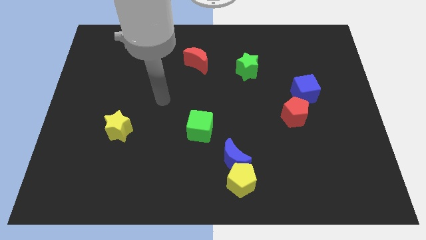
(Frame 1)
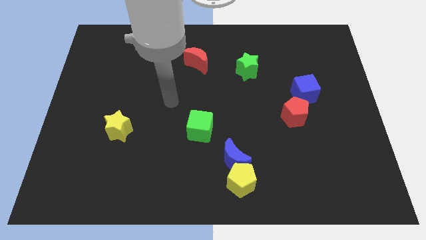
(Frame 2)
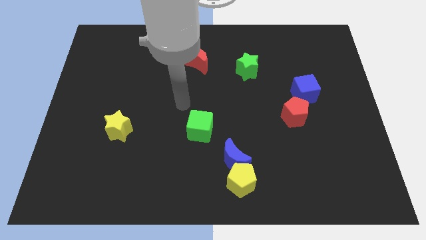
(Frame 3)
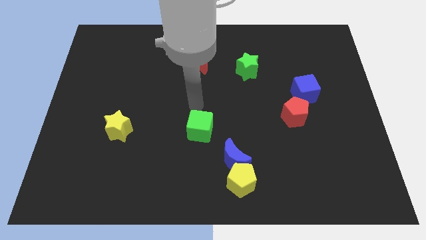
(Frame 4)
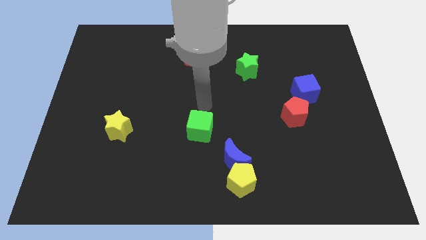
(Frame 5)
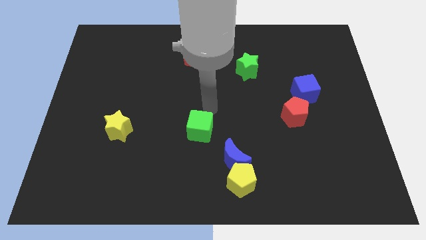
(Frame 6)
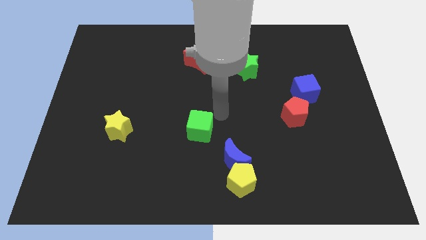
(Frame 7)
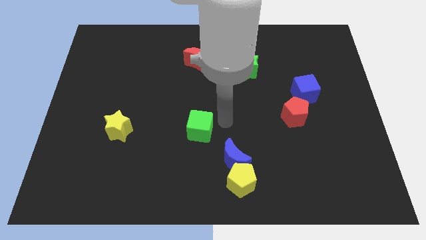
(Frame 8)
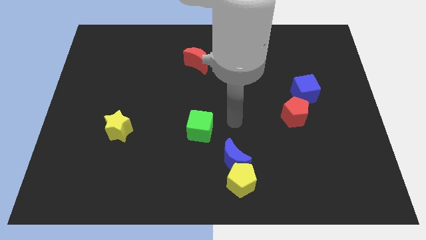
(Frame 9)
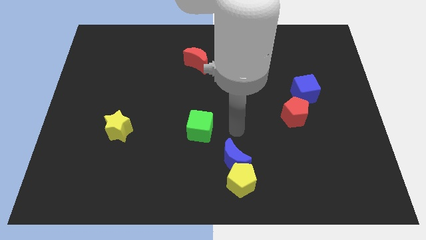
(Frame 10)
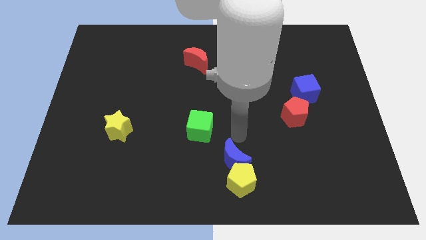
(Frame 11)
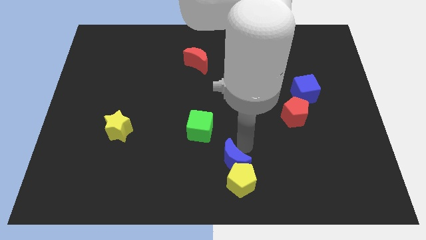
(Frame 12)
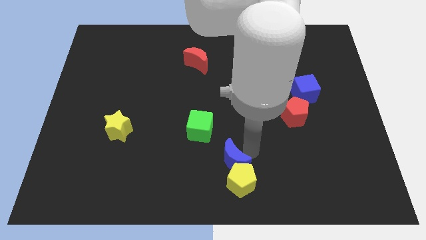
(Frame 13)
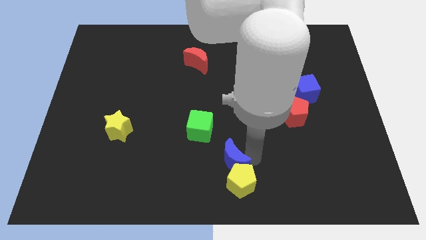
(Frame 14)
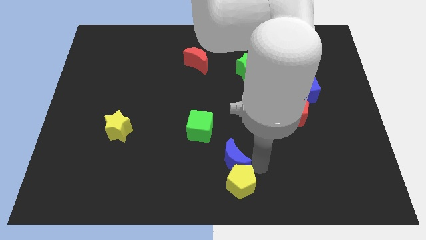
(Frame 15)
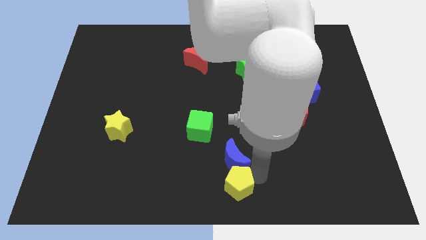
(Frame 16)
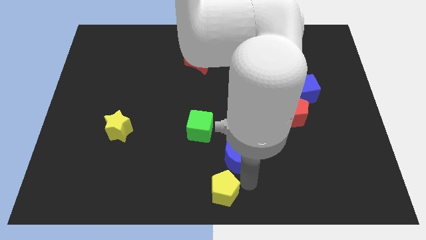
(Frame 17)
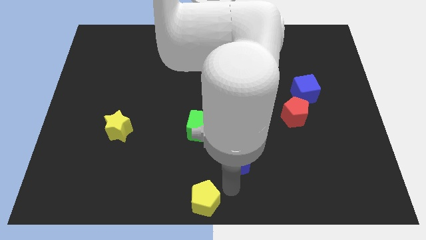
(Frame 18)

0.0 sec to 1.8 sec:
pull the blue moon apart from the yellow pentagon

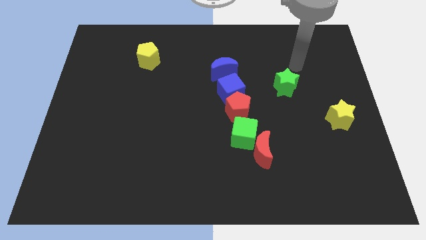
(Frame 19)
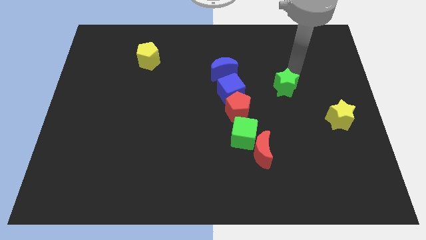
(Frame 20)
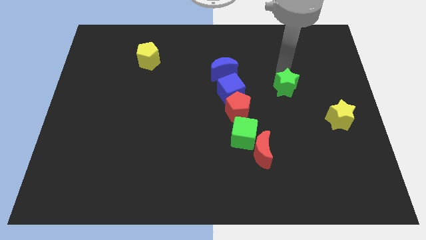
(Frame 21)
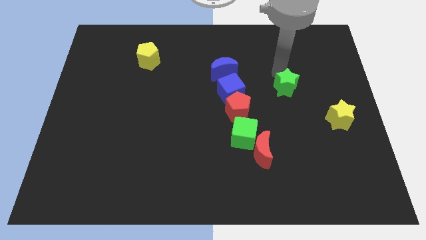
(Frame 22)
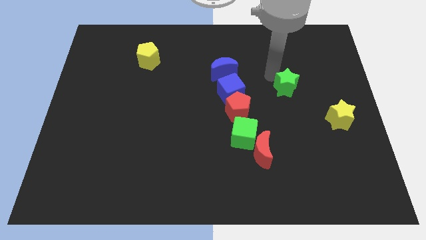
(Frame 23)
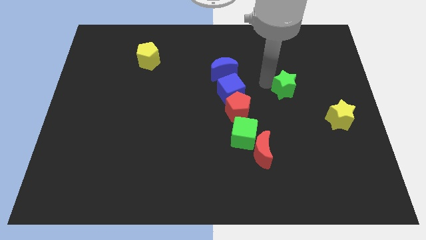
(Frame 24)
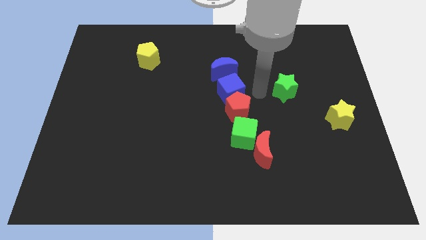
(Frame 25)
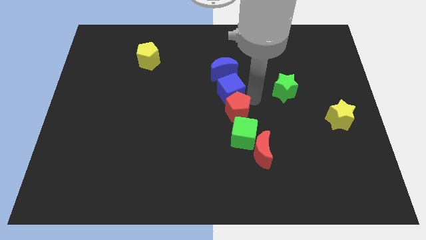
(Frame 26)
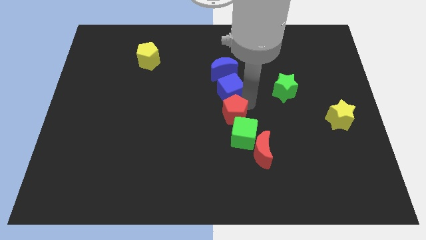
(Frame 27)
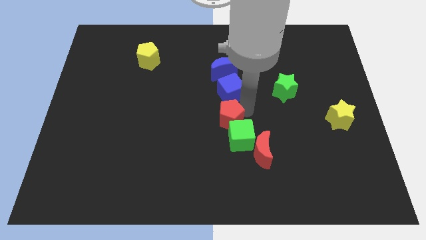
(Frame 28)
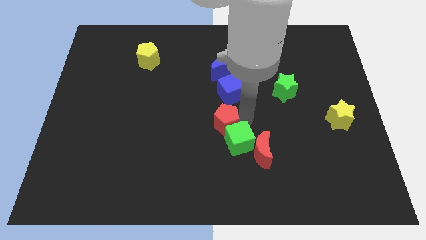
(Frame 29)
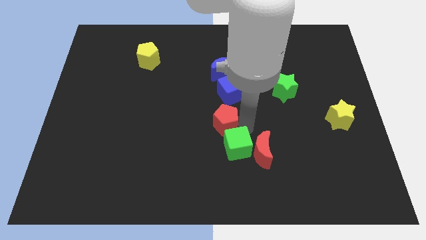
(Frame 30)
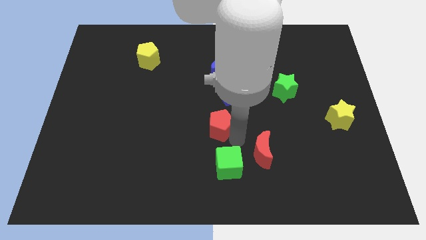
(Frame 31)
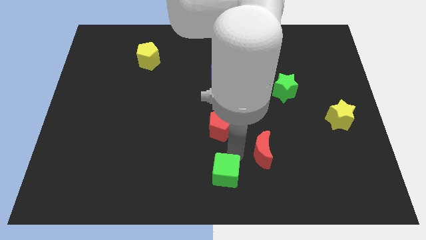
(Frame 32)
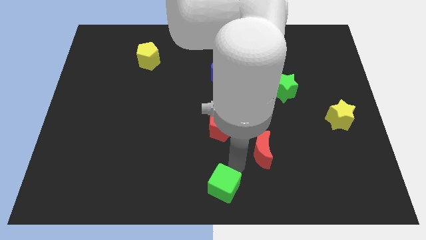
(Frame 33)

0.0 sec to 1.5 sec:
move the red moon away from the green cube

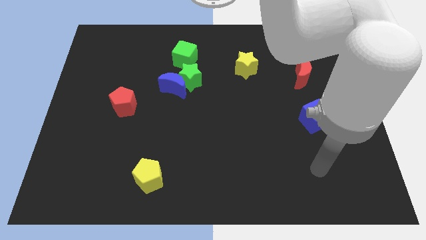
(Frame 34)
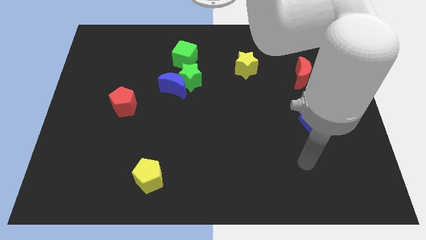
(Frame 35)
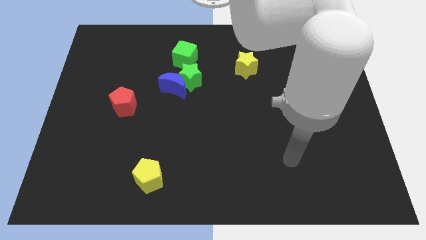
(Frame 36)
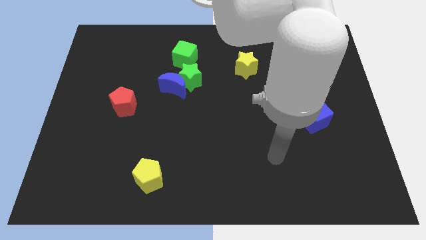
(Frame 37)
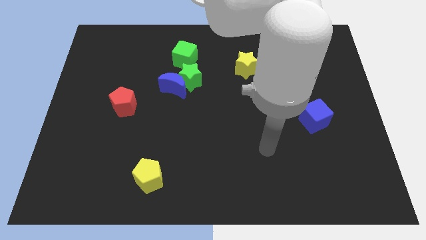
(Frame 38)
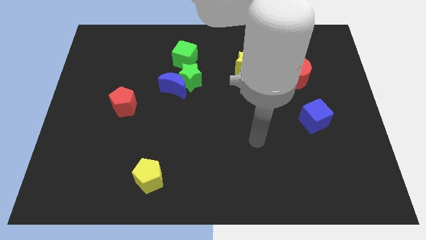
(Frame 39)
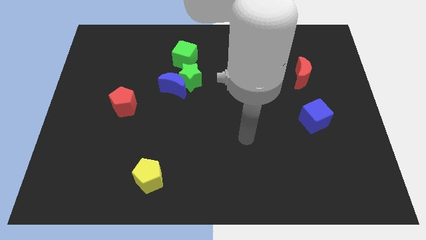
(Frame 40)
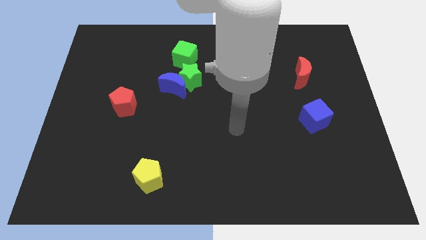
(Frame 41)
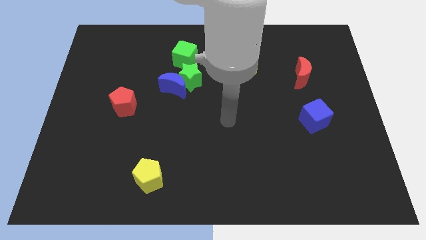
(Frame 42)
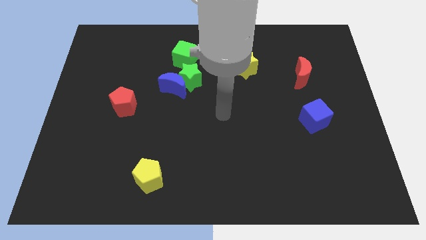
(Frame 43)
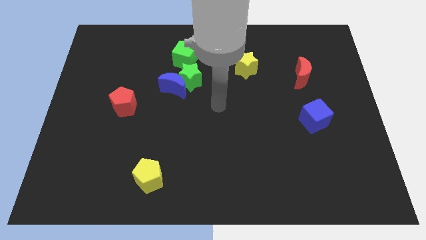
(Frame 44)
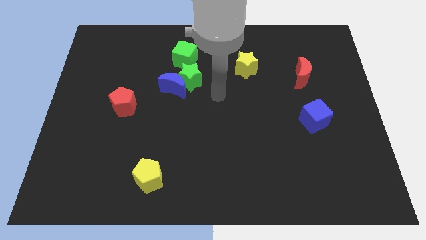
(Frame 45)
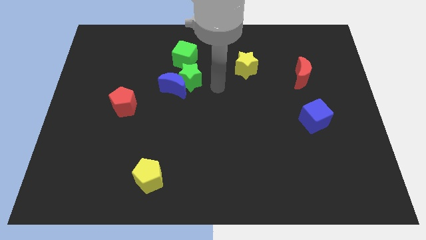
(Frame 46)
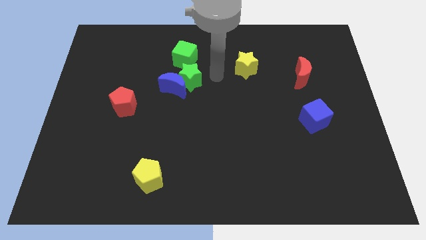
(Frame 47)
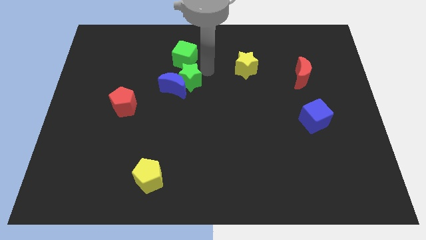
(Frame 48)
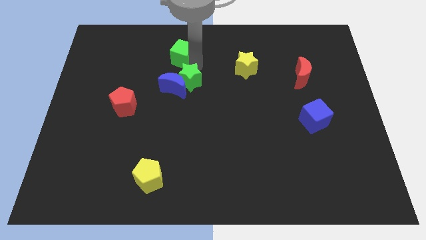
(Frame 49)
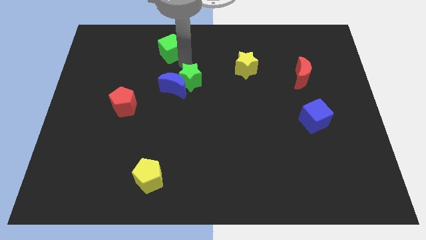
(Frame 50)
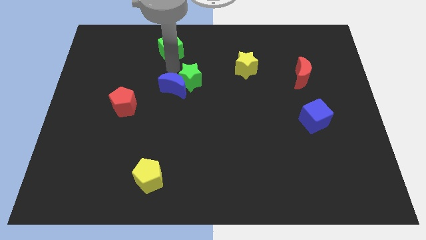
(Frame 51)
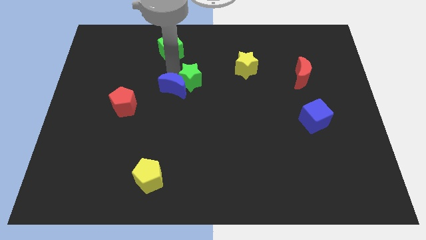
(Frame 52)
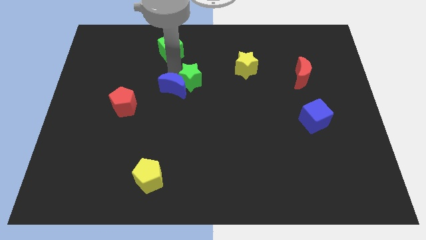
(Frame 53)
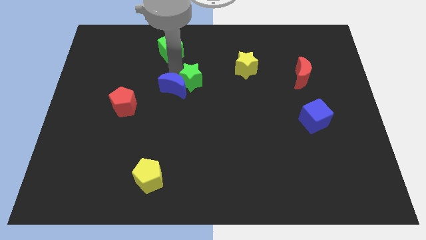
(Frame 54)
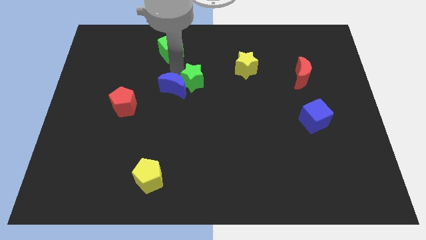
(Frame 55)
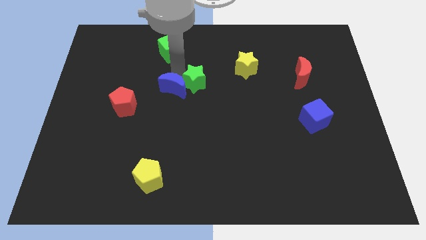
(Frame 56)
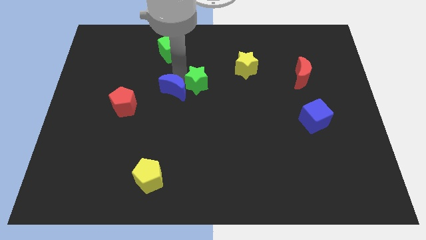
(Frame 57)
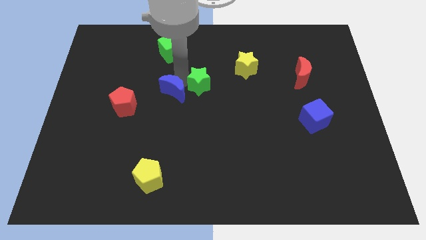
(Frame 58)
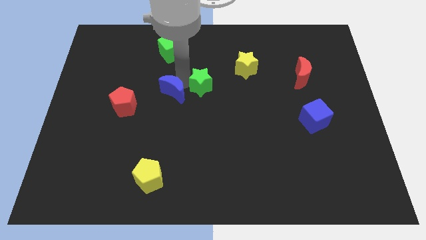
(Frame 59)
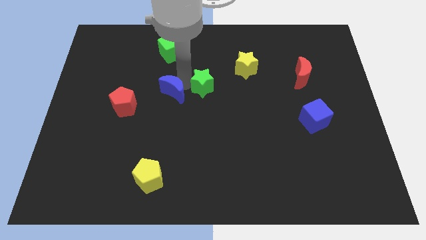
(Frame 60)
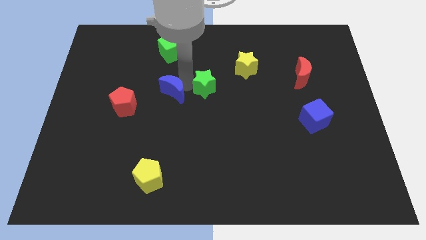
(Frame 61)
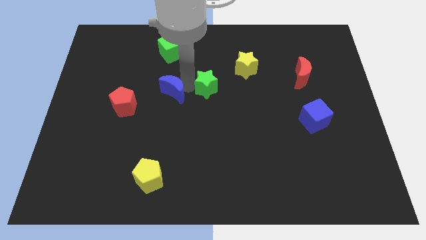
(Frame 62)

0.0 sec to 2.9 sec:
pull the green star apart from the blue moon and green cube

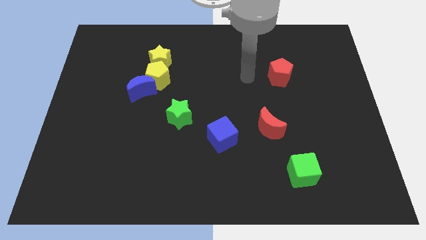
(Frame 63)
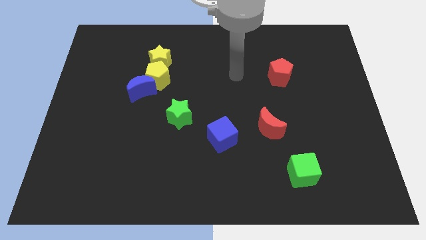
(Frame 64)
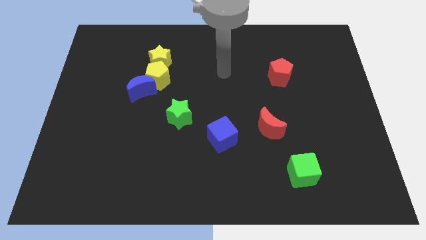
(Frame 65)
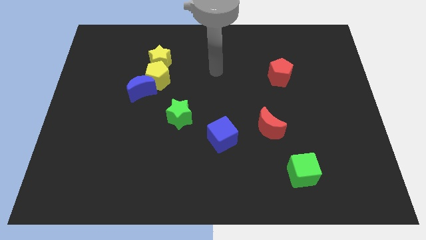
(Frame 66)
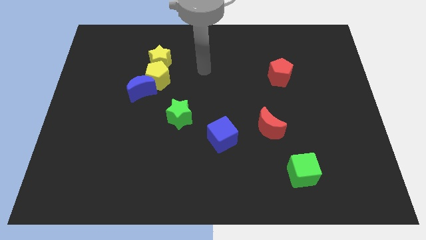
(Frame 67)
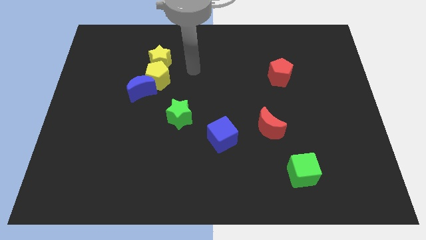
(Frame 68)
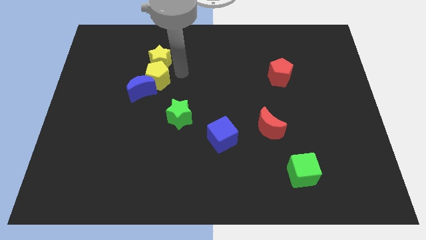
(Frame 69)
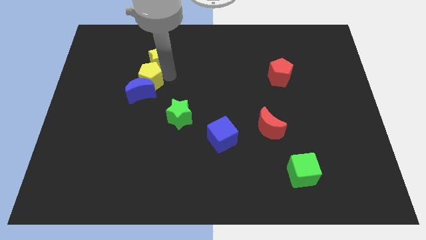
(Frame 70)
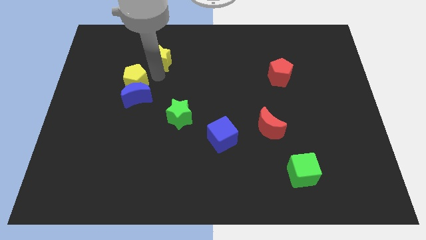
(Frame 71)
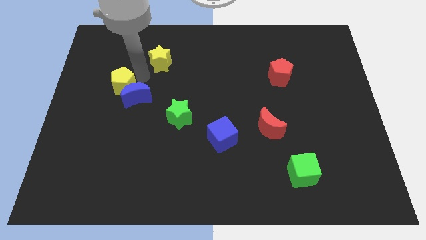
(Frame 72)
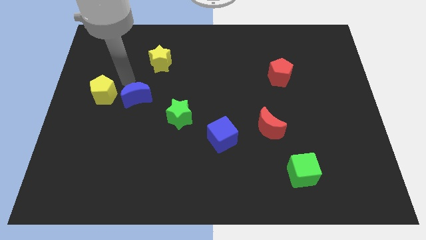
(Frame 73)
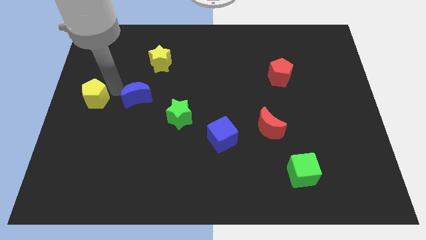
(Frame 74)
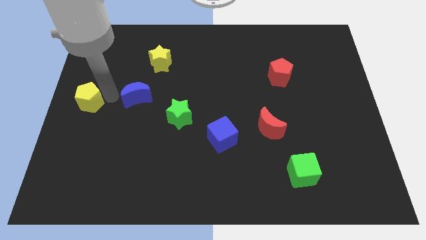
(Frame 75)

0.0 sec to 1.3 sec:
separate the blue moon from the yellow pentagon

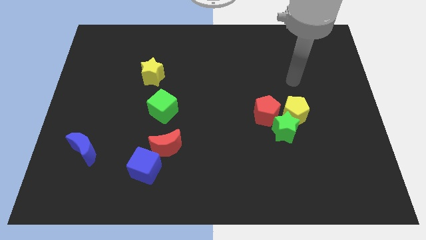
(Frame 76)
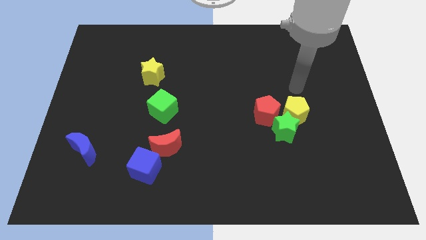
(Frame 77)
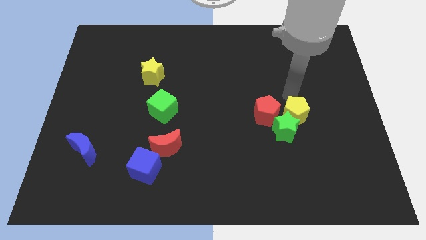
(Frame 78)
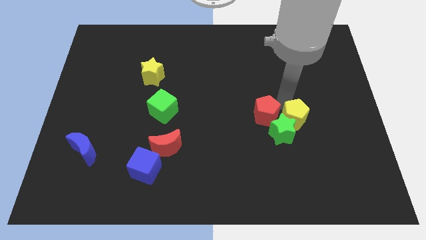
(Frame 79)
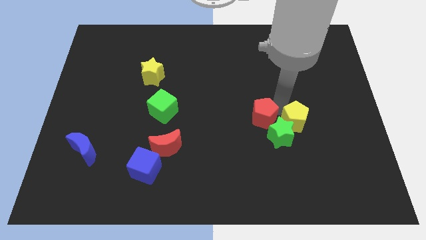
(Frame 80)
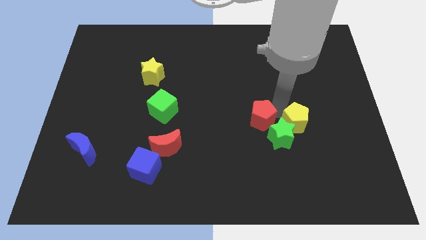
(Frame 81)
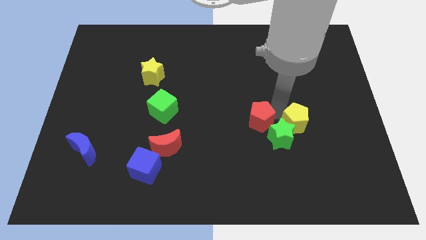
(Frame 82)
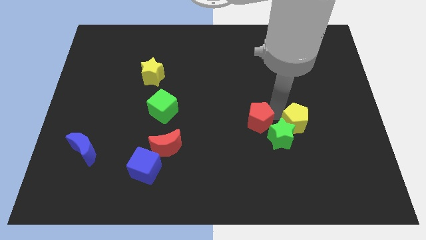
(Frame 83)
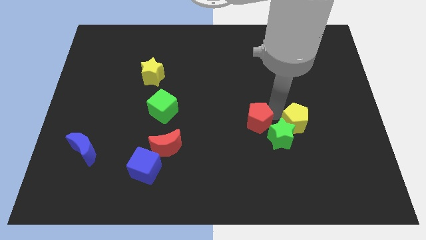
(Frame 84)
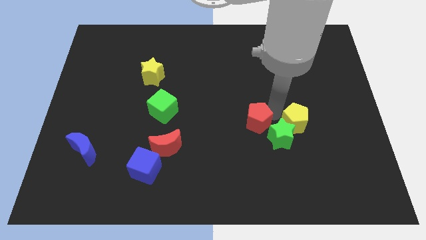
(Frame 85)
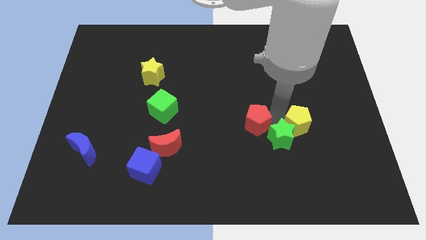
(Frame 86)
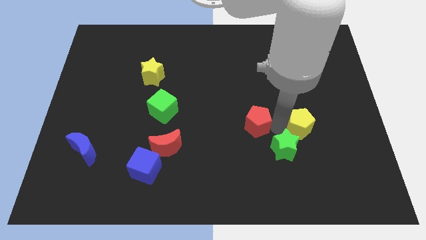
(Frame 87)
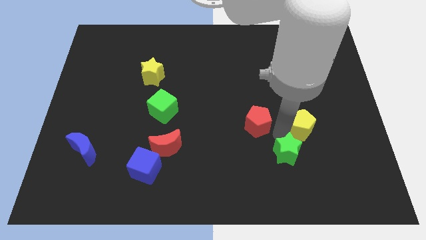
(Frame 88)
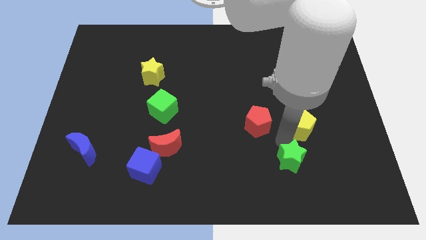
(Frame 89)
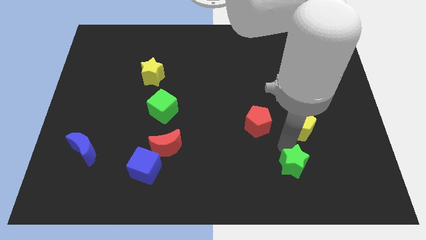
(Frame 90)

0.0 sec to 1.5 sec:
move the green star away from the yellow pentagon and red pentagon

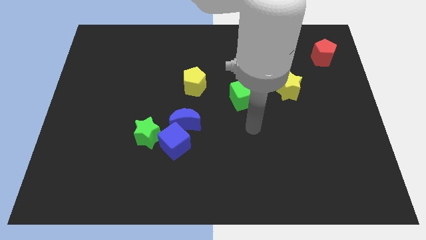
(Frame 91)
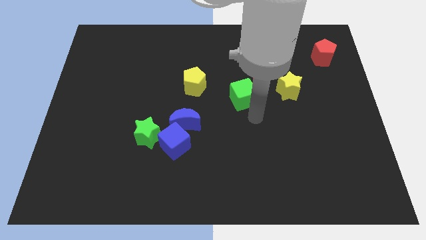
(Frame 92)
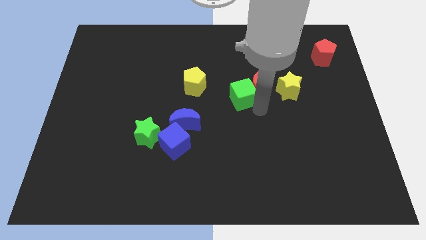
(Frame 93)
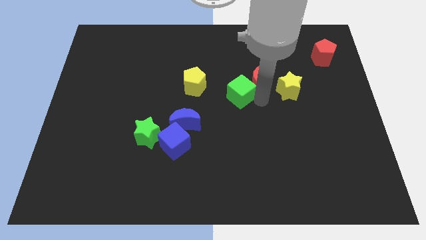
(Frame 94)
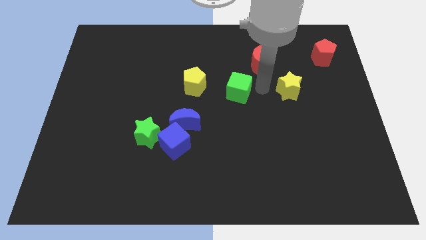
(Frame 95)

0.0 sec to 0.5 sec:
separate the green cube from the red moon

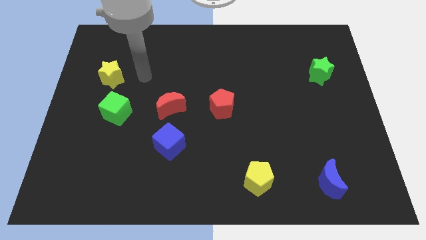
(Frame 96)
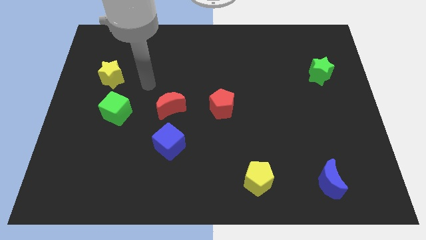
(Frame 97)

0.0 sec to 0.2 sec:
separate the red moon from the blue cube
